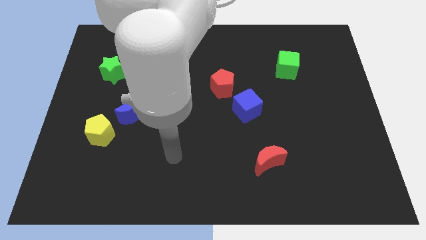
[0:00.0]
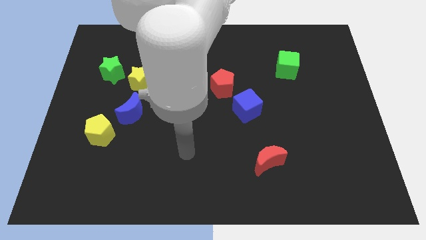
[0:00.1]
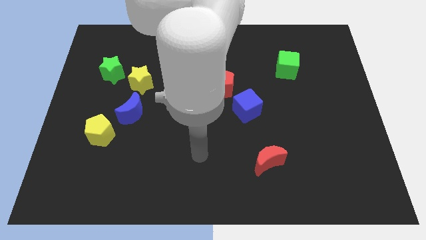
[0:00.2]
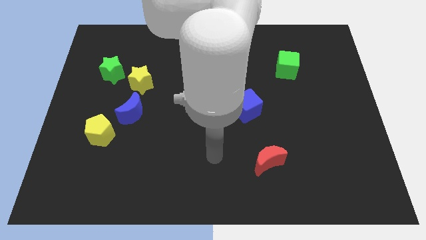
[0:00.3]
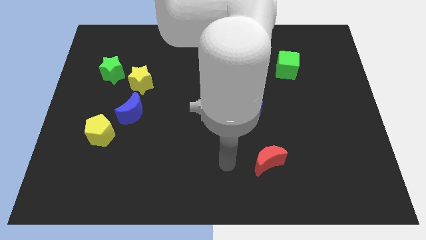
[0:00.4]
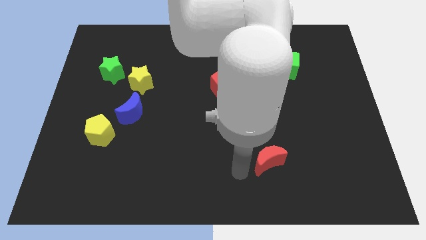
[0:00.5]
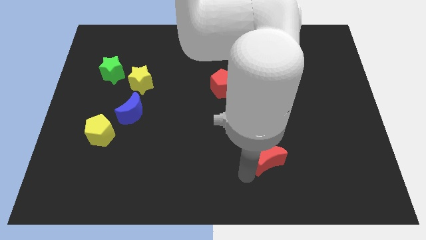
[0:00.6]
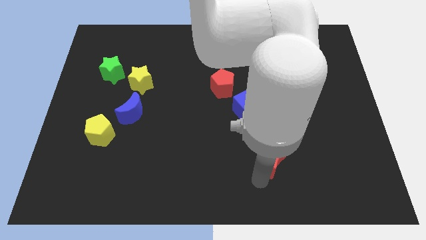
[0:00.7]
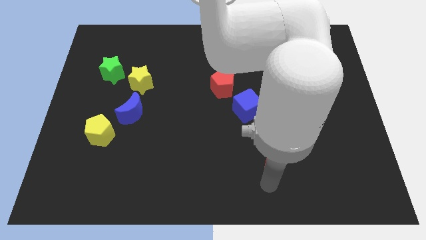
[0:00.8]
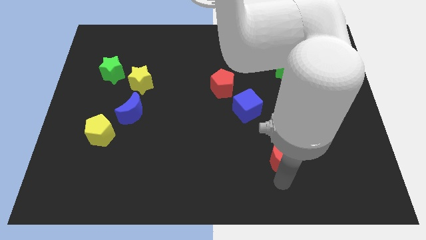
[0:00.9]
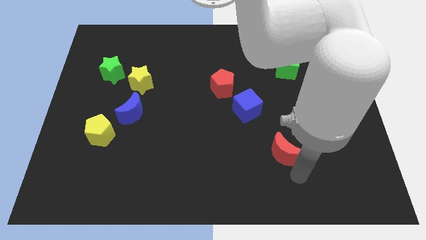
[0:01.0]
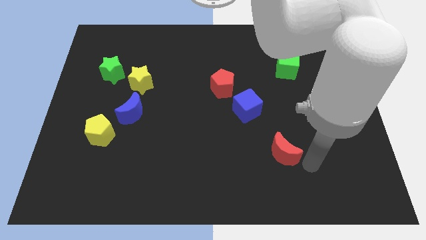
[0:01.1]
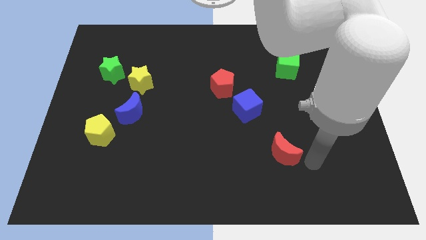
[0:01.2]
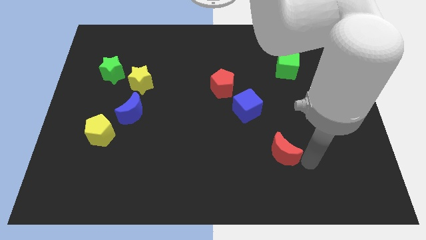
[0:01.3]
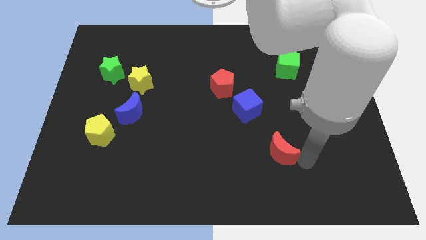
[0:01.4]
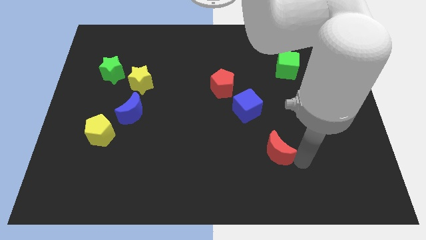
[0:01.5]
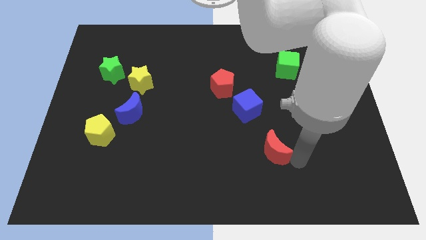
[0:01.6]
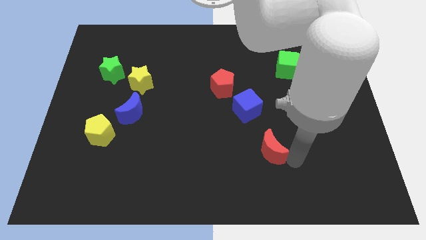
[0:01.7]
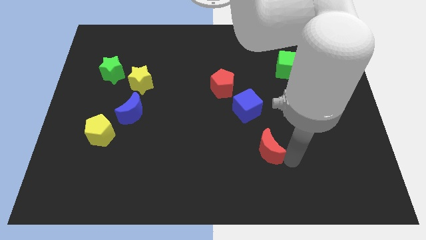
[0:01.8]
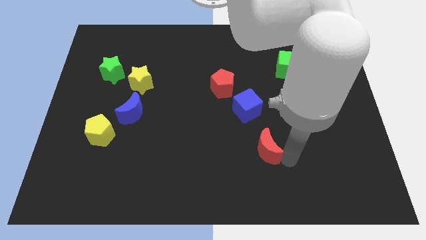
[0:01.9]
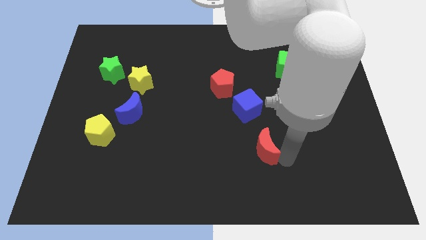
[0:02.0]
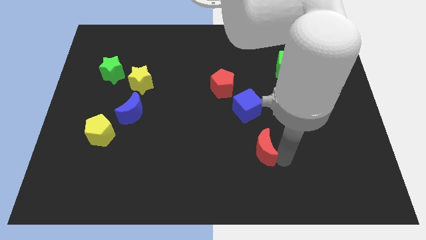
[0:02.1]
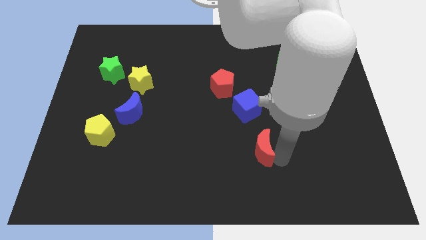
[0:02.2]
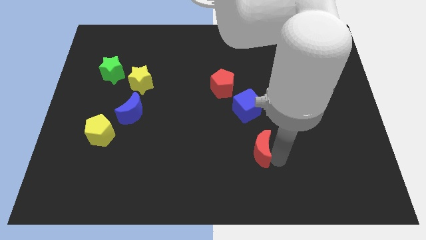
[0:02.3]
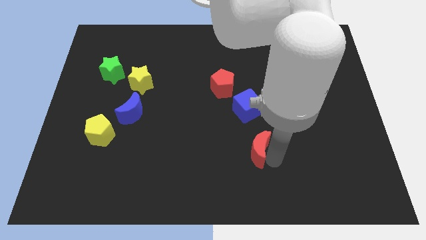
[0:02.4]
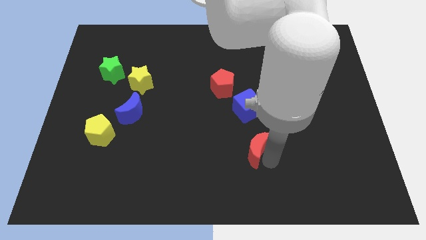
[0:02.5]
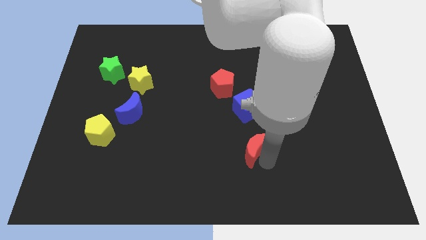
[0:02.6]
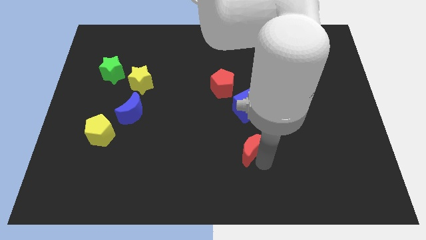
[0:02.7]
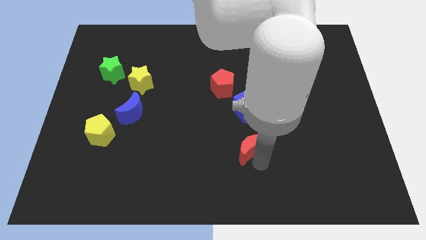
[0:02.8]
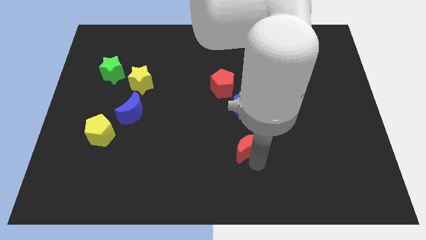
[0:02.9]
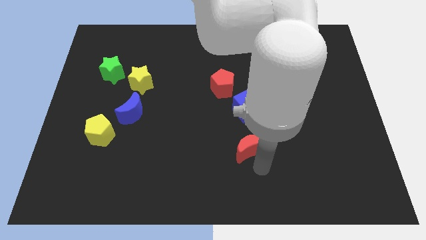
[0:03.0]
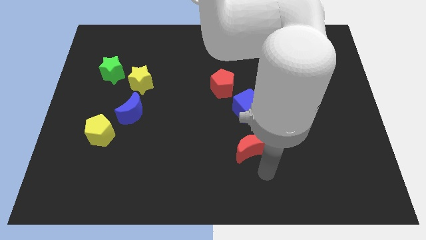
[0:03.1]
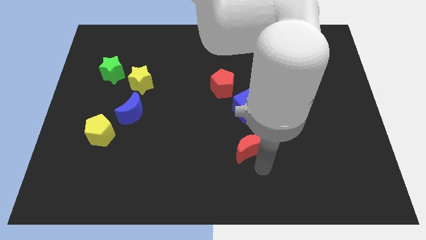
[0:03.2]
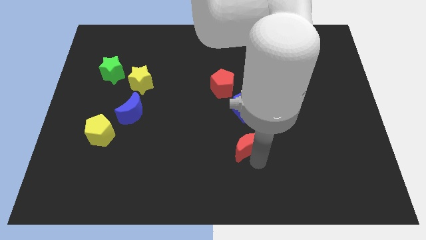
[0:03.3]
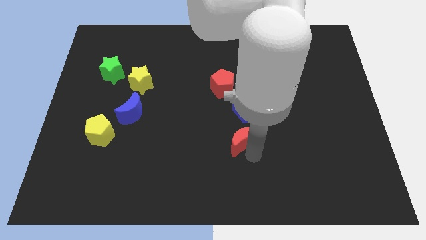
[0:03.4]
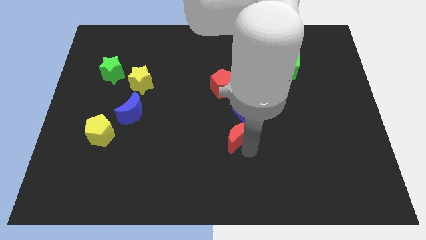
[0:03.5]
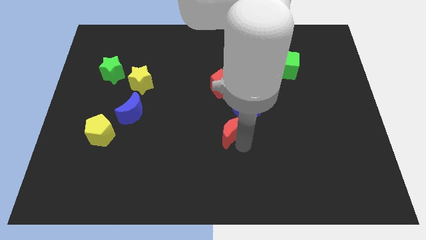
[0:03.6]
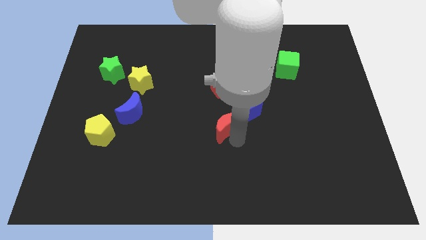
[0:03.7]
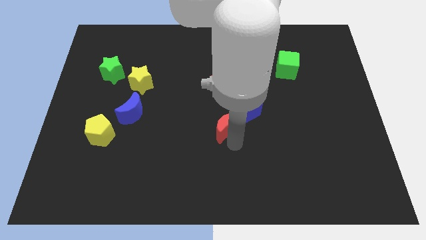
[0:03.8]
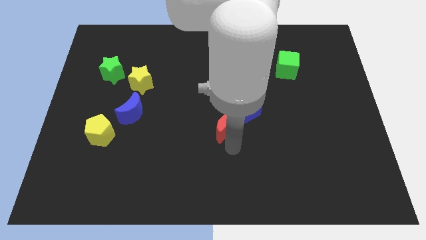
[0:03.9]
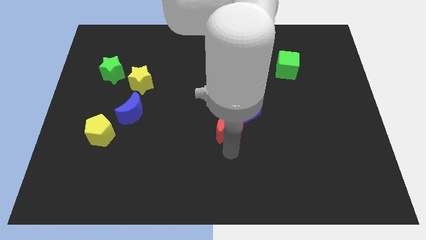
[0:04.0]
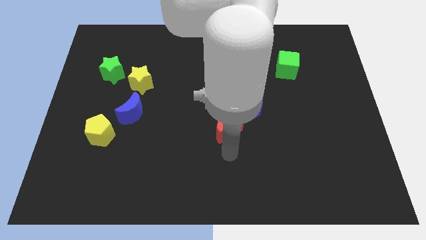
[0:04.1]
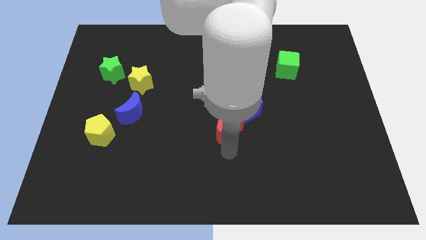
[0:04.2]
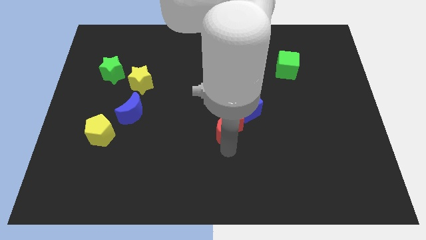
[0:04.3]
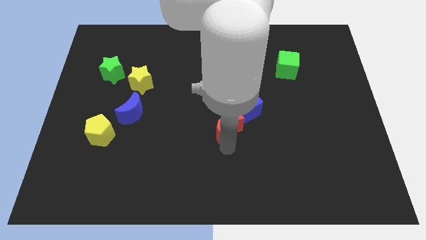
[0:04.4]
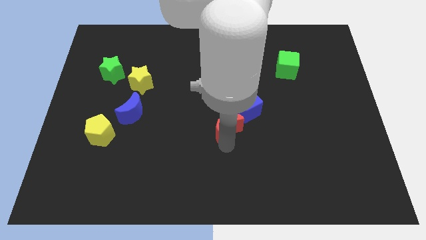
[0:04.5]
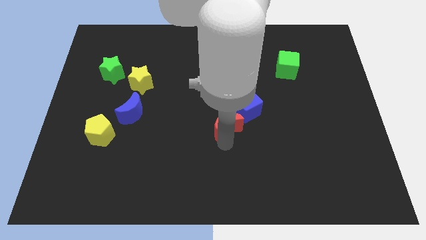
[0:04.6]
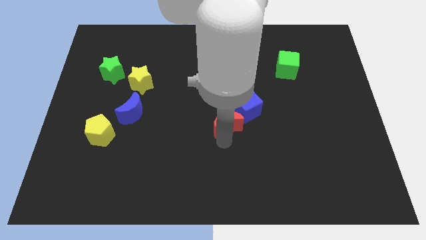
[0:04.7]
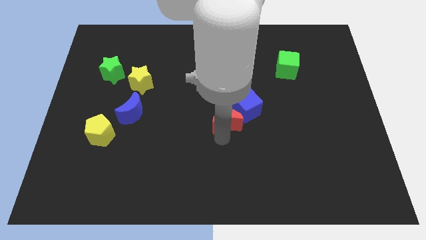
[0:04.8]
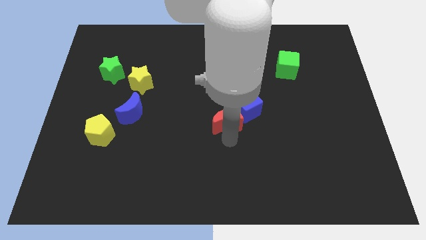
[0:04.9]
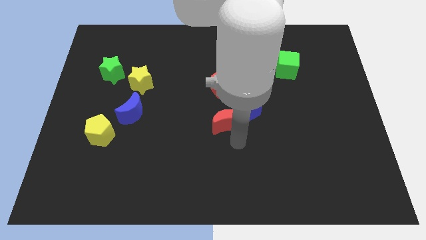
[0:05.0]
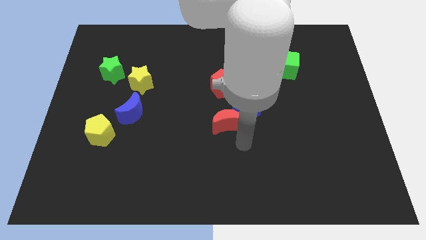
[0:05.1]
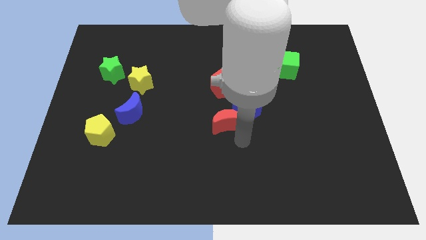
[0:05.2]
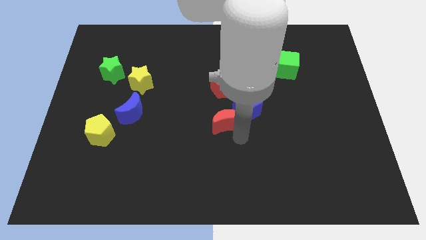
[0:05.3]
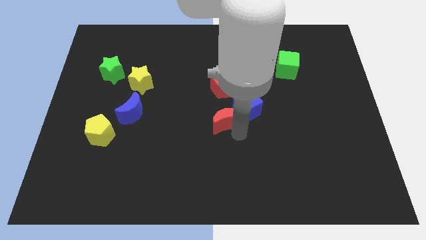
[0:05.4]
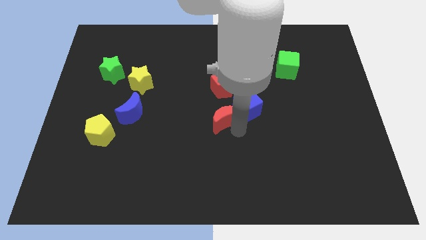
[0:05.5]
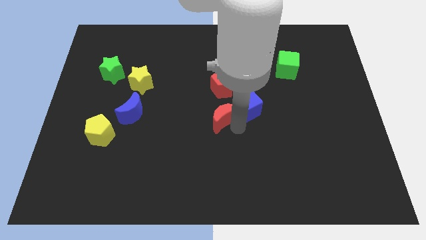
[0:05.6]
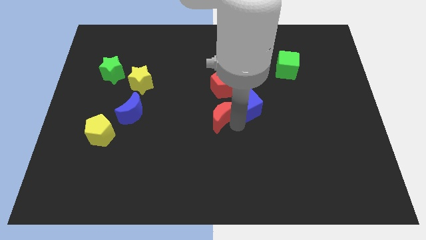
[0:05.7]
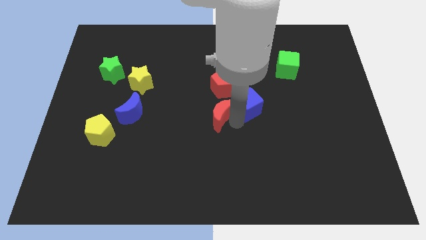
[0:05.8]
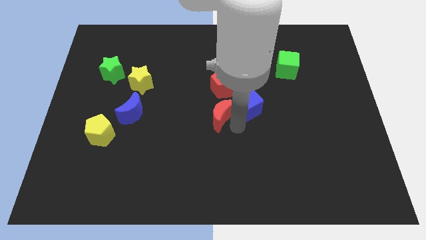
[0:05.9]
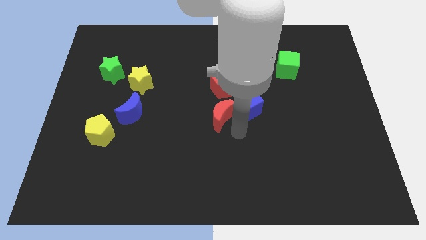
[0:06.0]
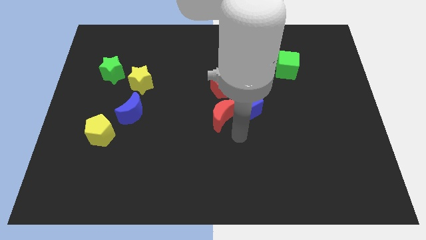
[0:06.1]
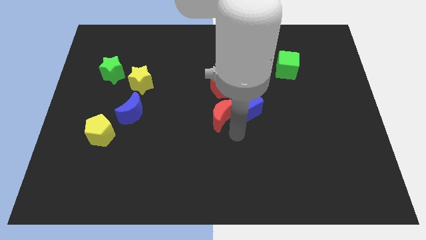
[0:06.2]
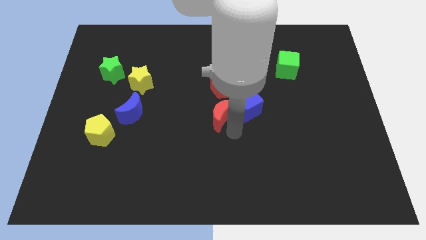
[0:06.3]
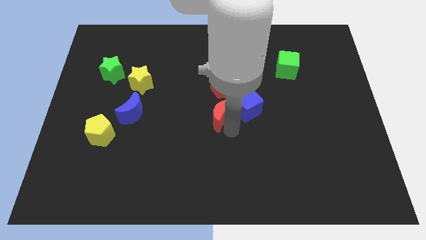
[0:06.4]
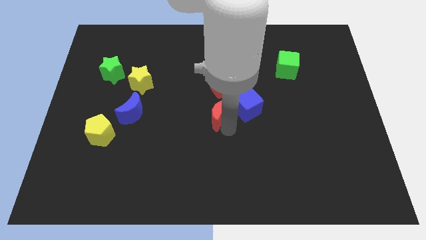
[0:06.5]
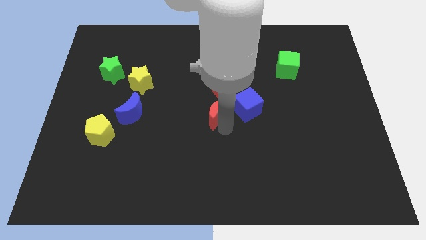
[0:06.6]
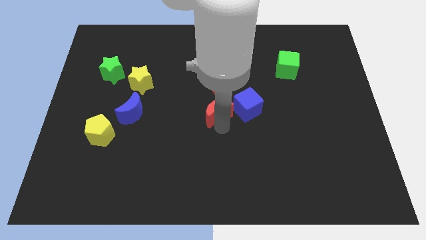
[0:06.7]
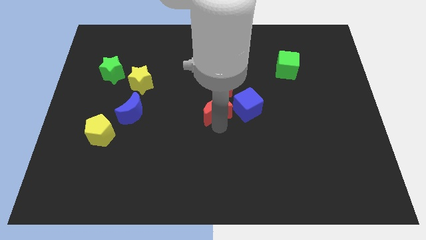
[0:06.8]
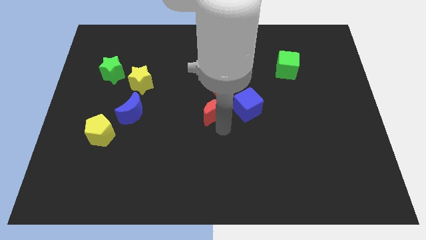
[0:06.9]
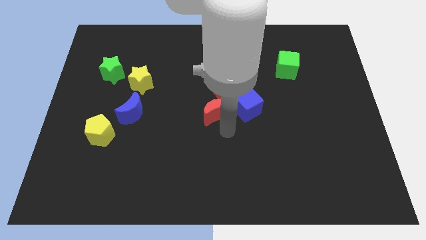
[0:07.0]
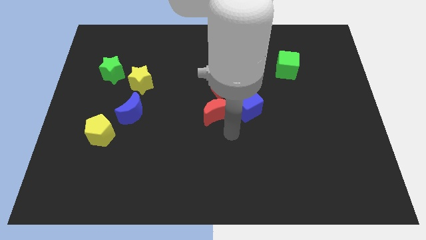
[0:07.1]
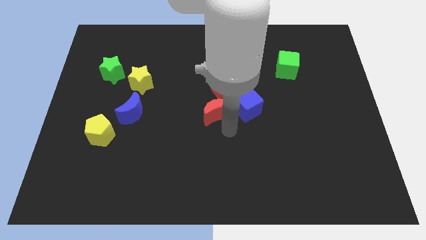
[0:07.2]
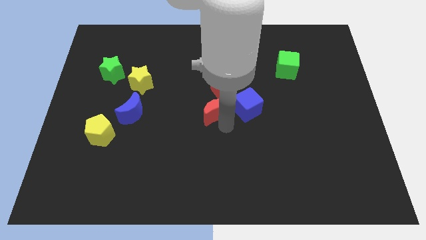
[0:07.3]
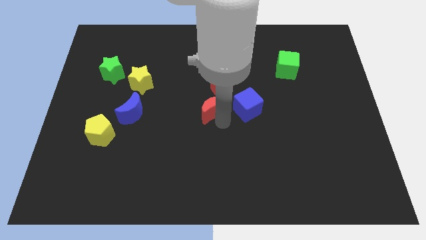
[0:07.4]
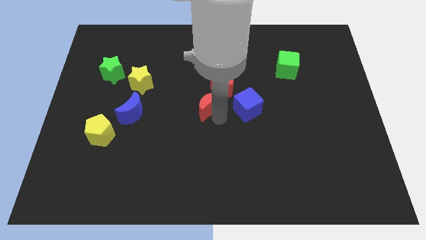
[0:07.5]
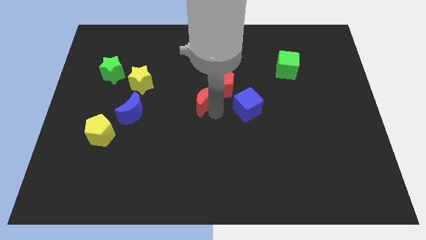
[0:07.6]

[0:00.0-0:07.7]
slide the red moon up and to the left

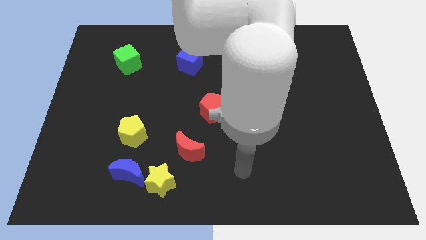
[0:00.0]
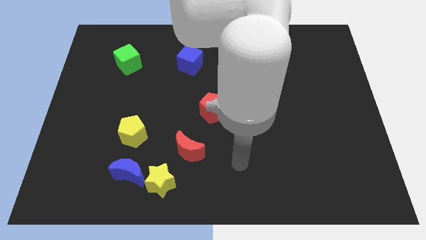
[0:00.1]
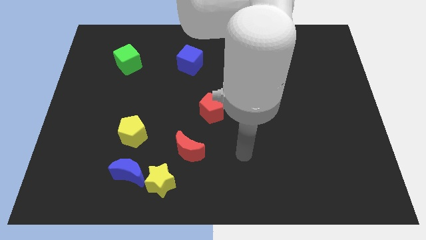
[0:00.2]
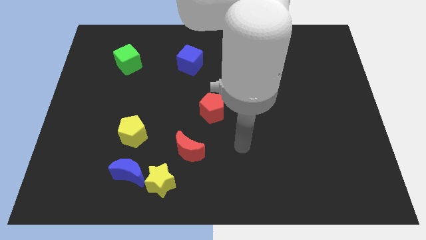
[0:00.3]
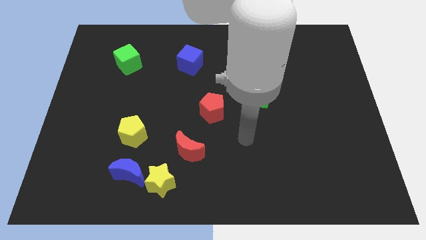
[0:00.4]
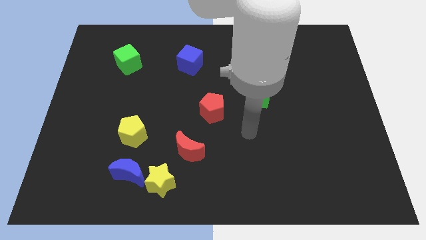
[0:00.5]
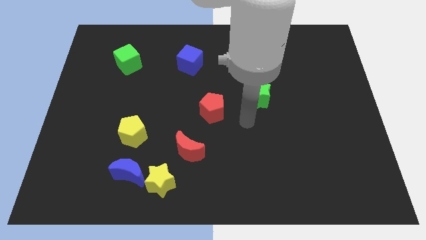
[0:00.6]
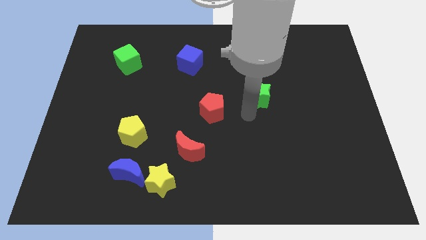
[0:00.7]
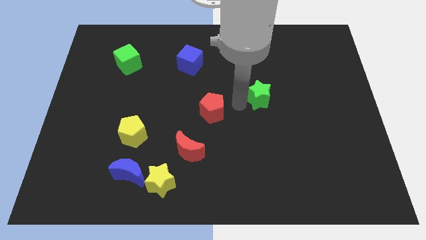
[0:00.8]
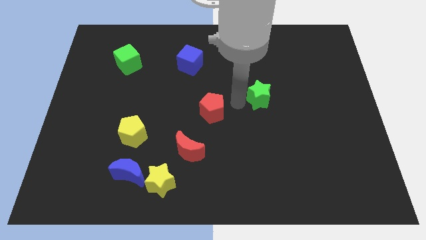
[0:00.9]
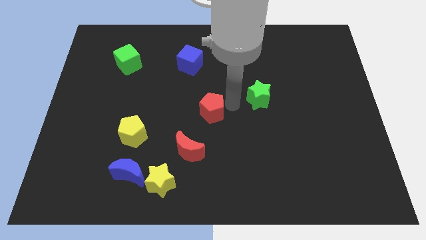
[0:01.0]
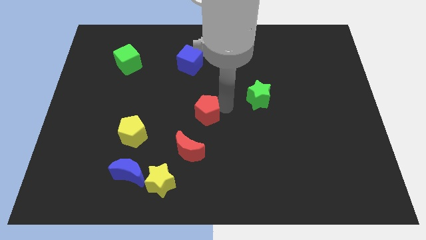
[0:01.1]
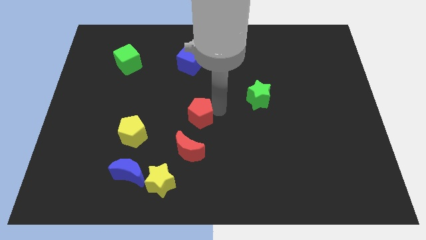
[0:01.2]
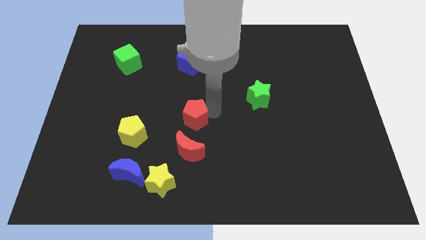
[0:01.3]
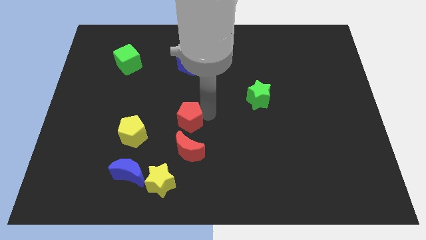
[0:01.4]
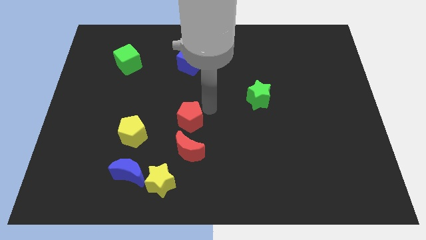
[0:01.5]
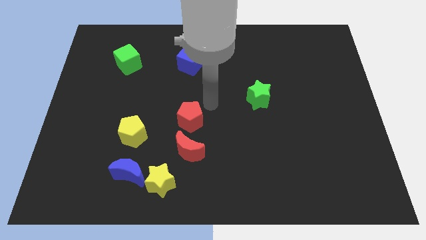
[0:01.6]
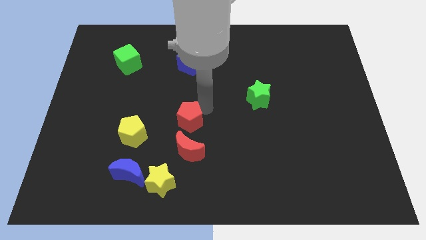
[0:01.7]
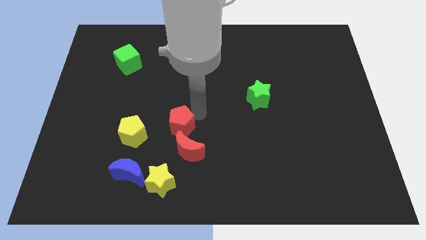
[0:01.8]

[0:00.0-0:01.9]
move the red pentagon down and left diagonally slightly
